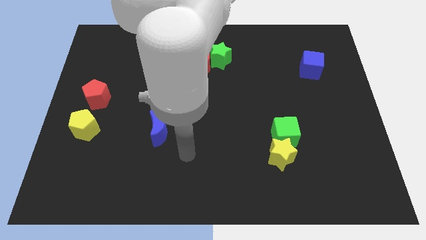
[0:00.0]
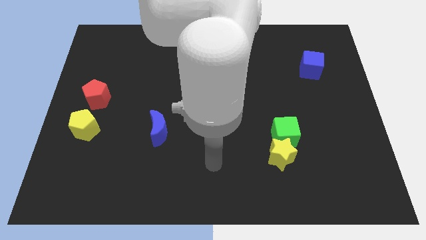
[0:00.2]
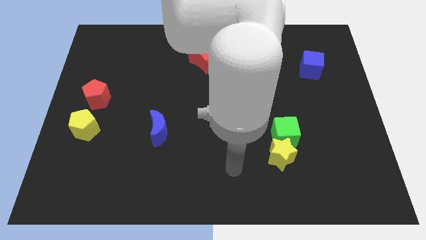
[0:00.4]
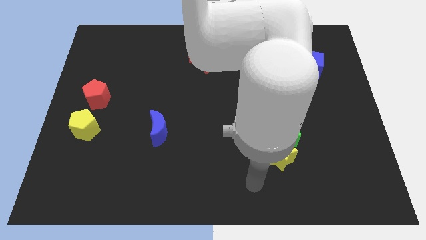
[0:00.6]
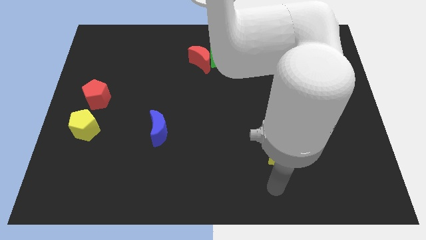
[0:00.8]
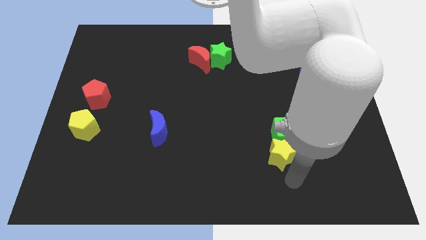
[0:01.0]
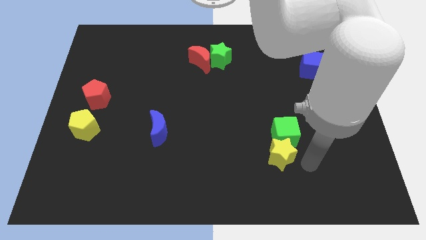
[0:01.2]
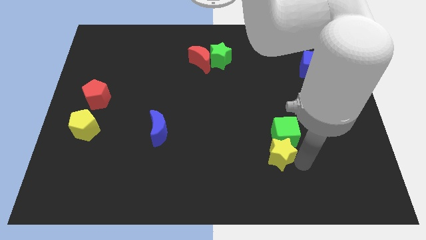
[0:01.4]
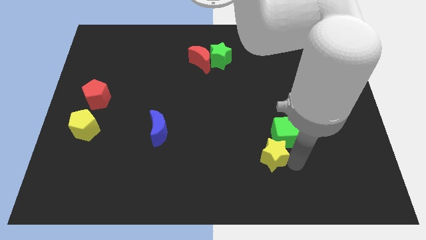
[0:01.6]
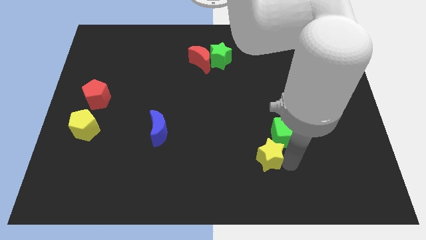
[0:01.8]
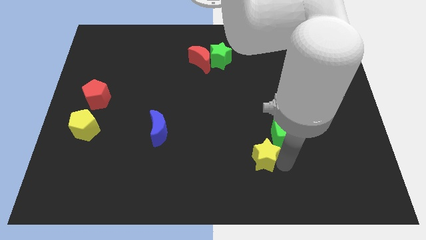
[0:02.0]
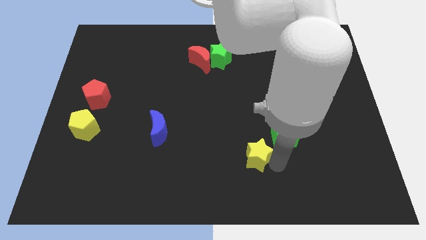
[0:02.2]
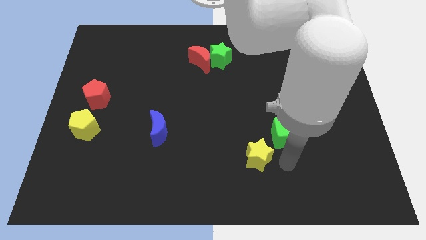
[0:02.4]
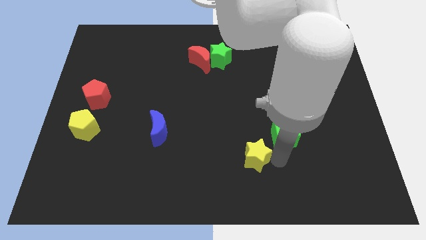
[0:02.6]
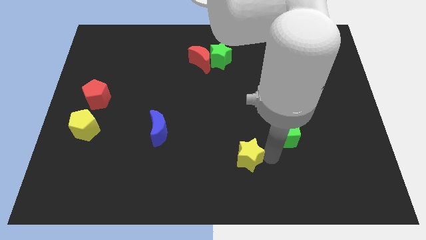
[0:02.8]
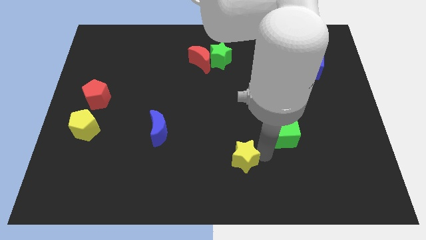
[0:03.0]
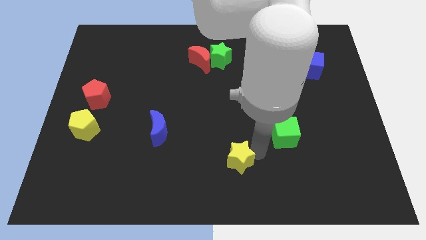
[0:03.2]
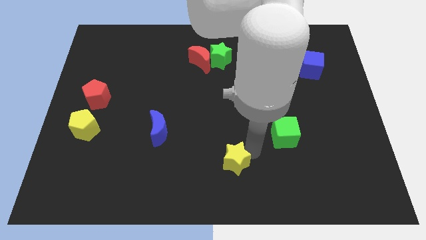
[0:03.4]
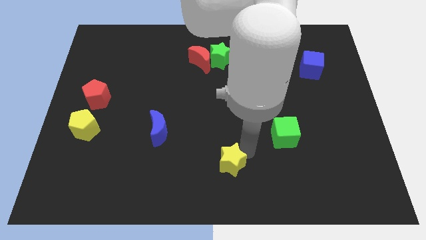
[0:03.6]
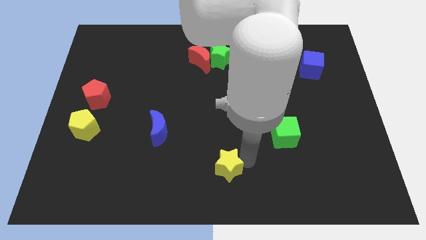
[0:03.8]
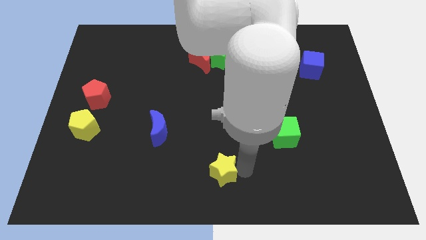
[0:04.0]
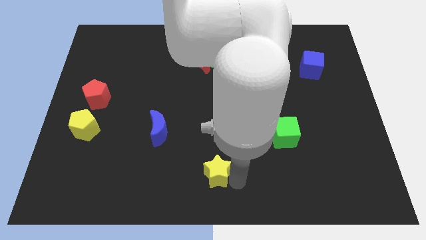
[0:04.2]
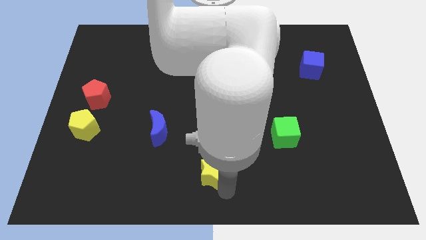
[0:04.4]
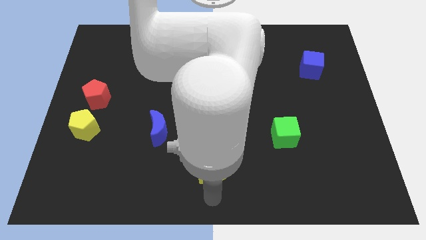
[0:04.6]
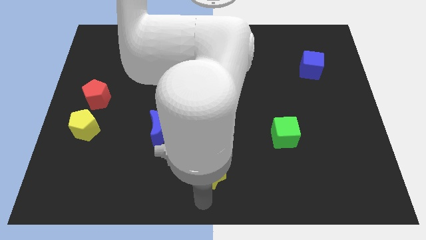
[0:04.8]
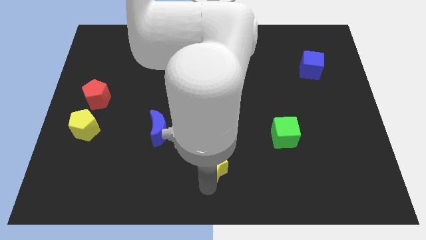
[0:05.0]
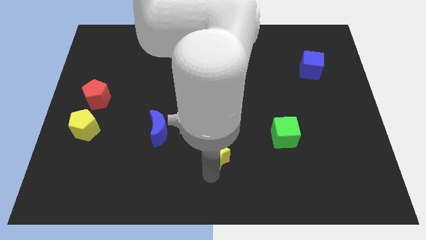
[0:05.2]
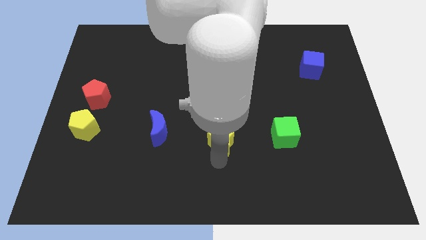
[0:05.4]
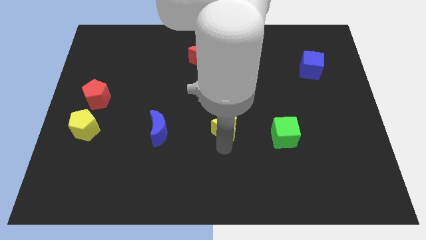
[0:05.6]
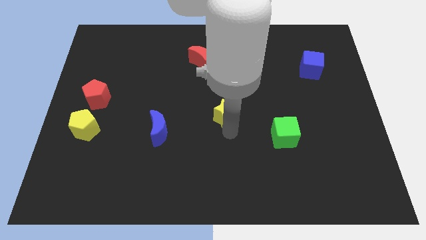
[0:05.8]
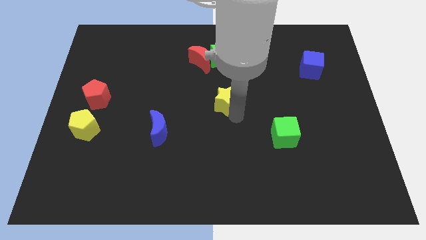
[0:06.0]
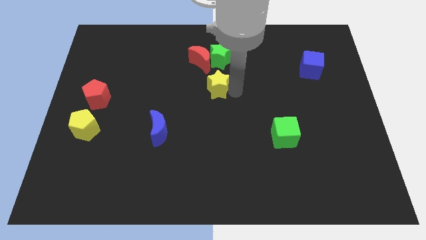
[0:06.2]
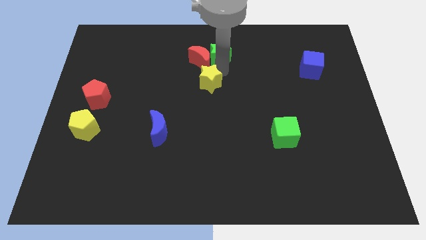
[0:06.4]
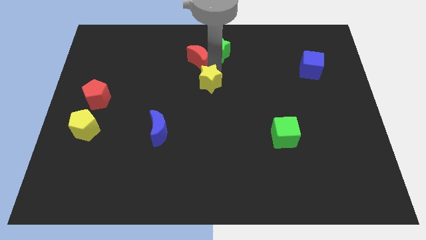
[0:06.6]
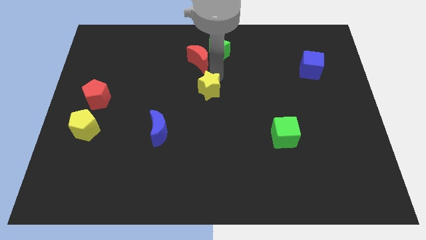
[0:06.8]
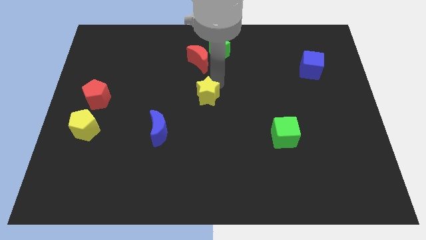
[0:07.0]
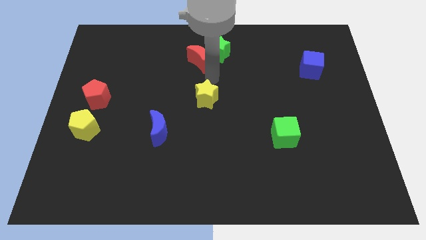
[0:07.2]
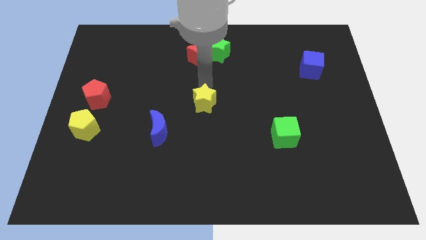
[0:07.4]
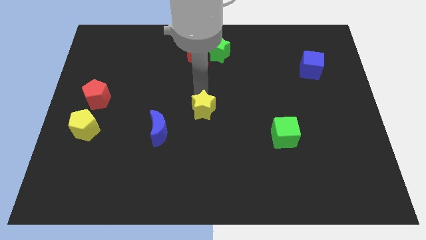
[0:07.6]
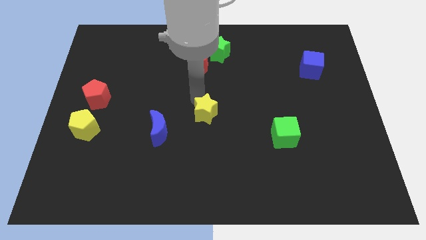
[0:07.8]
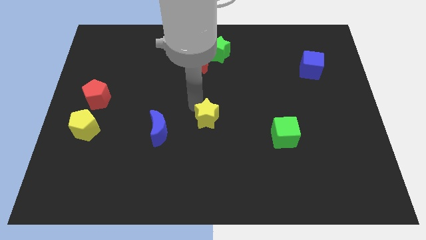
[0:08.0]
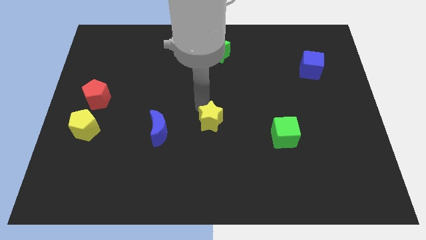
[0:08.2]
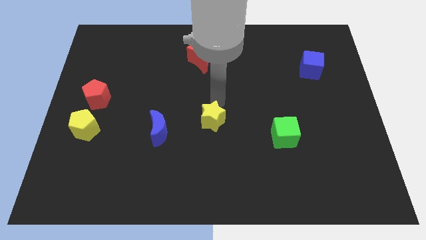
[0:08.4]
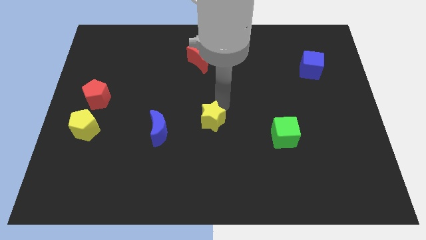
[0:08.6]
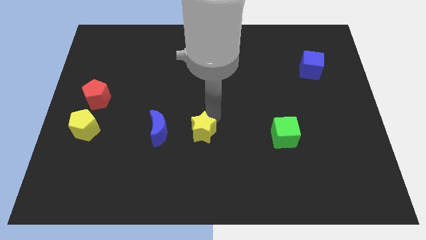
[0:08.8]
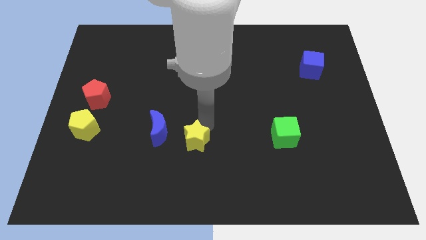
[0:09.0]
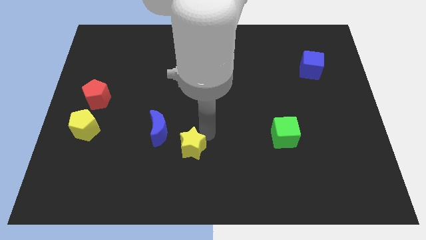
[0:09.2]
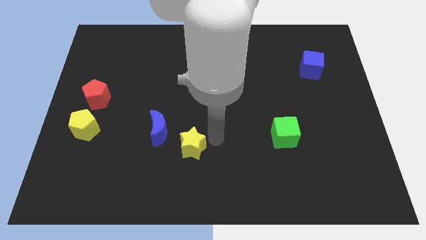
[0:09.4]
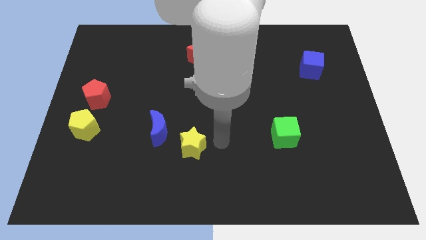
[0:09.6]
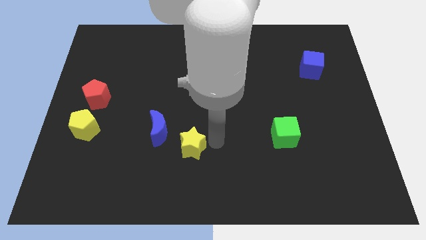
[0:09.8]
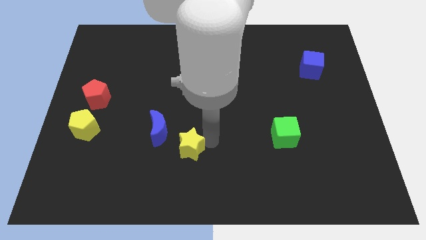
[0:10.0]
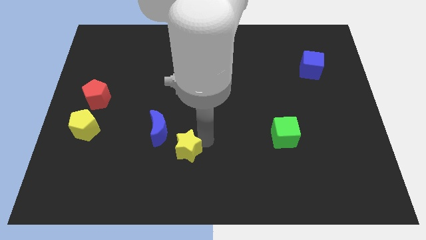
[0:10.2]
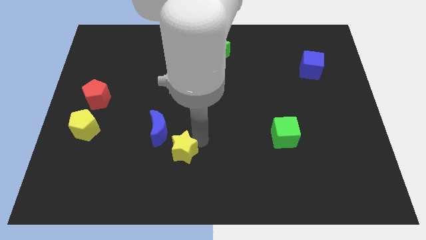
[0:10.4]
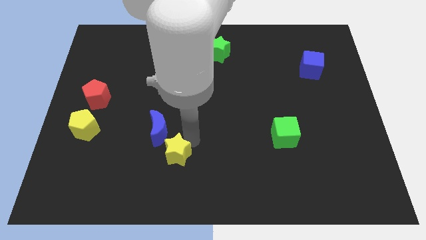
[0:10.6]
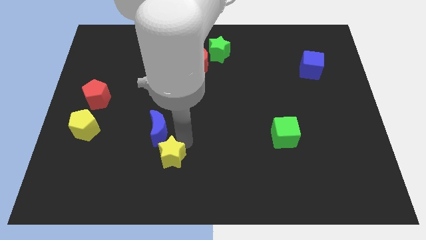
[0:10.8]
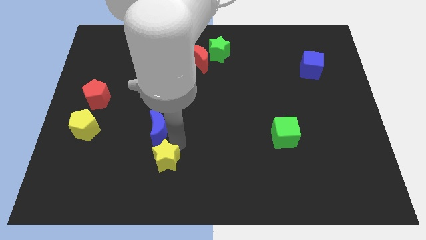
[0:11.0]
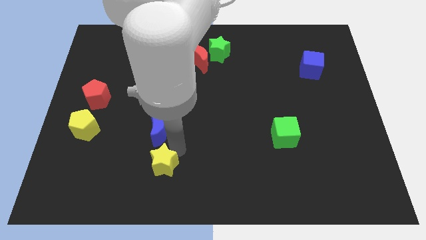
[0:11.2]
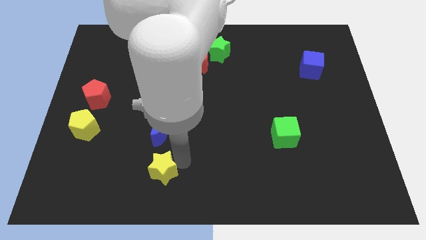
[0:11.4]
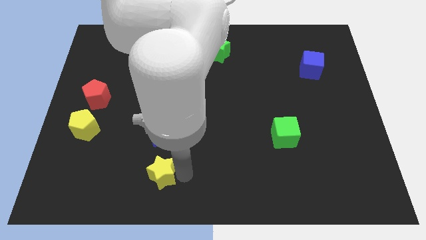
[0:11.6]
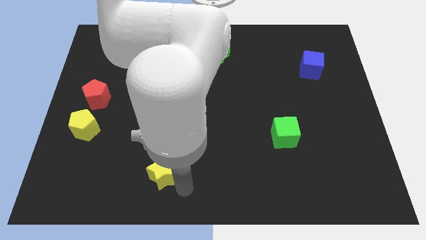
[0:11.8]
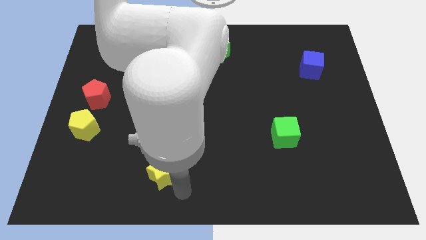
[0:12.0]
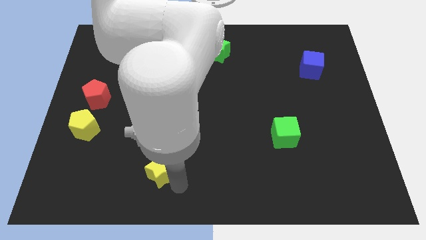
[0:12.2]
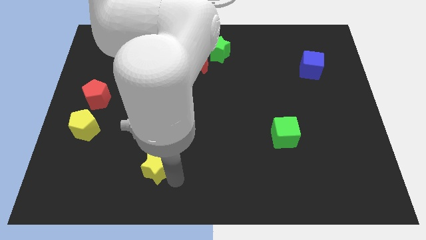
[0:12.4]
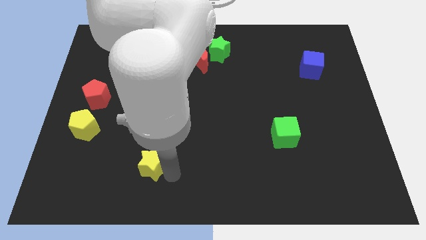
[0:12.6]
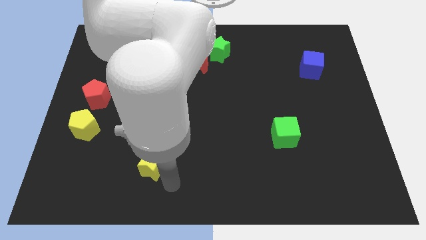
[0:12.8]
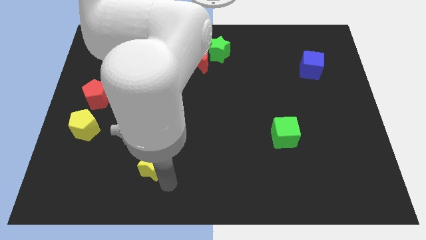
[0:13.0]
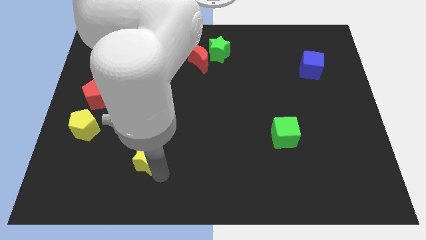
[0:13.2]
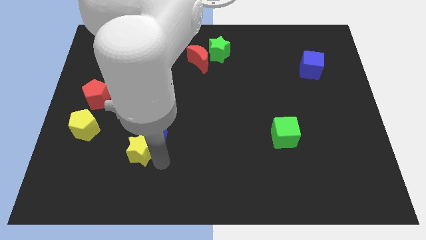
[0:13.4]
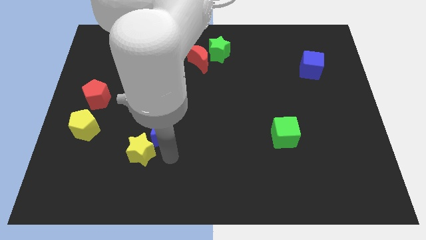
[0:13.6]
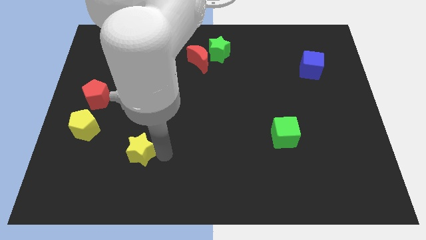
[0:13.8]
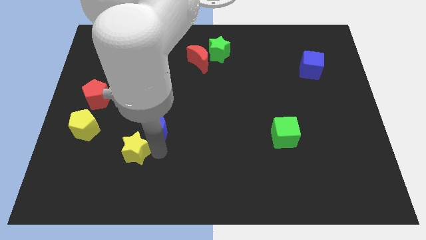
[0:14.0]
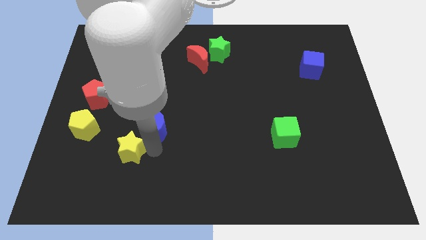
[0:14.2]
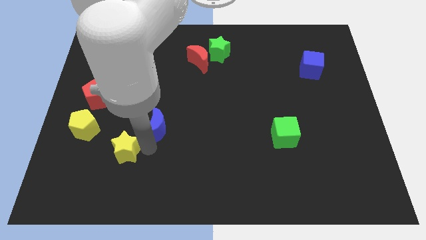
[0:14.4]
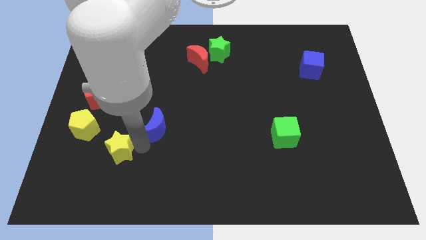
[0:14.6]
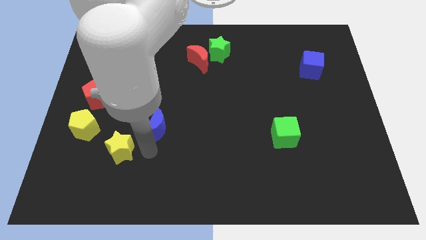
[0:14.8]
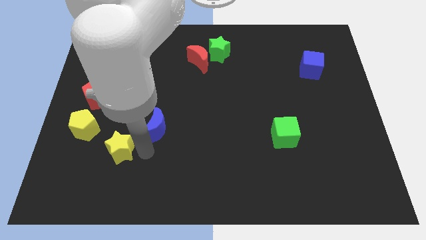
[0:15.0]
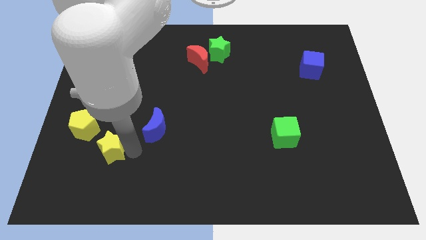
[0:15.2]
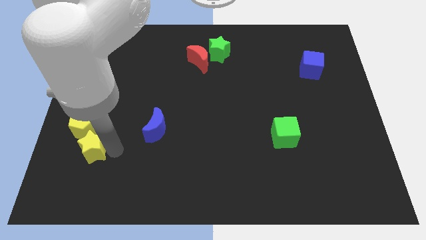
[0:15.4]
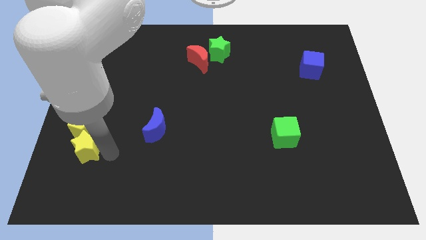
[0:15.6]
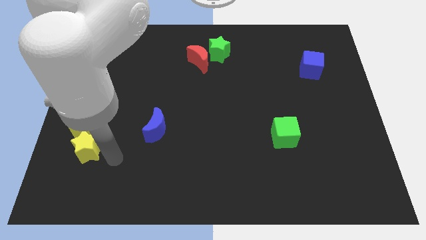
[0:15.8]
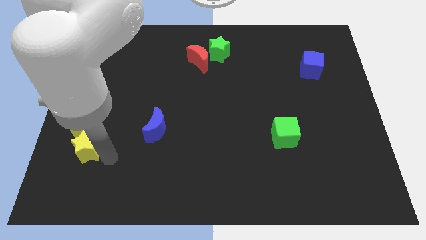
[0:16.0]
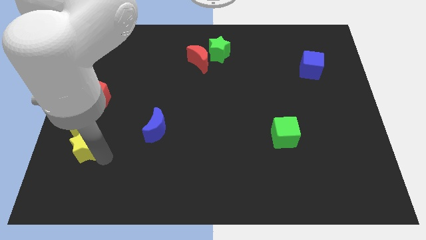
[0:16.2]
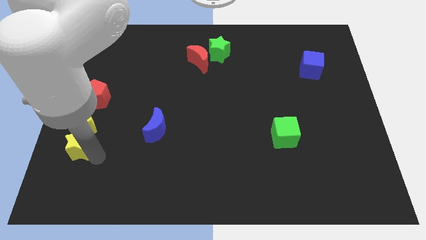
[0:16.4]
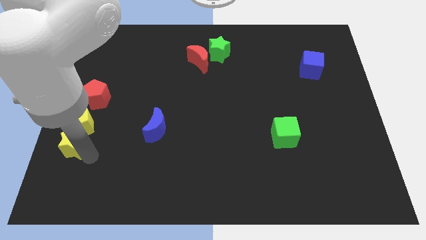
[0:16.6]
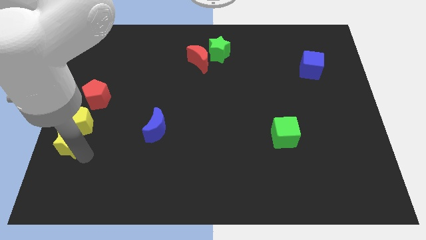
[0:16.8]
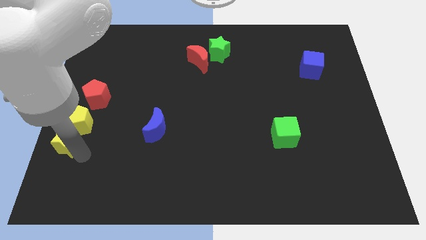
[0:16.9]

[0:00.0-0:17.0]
put the yellow star to the left side
